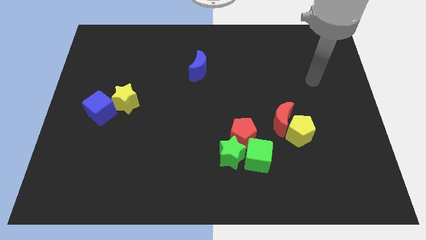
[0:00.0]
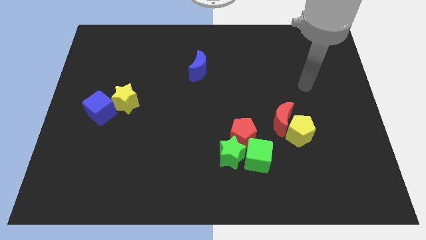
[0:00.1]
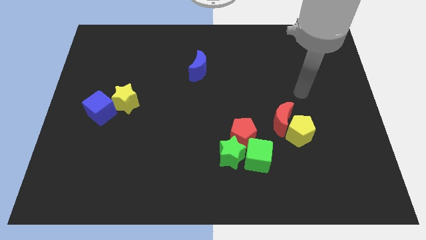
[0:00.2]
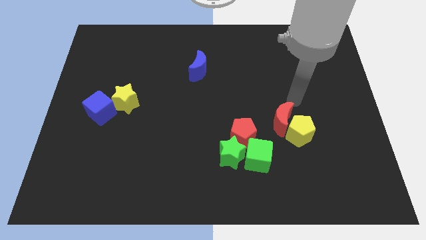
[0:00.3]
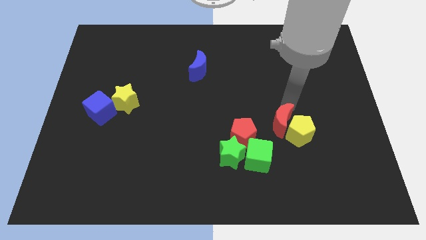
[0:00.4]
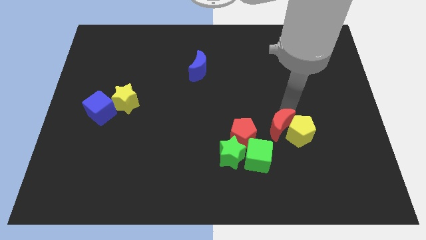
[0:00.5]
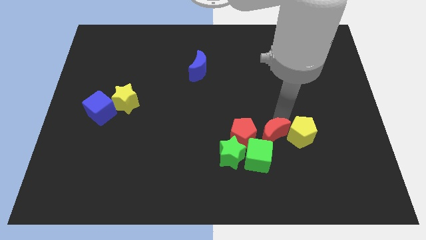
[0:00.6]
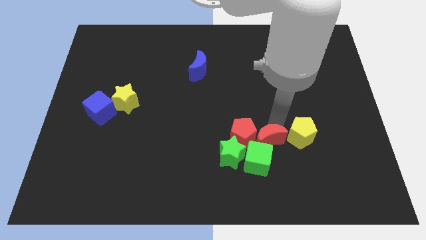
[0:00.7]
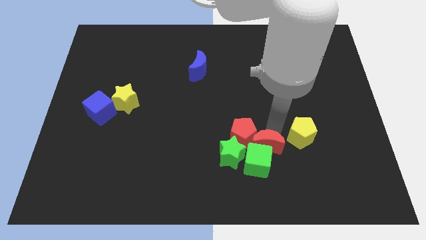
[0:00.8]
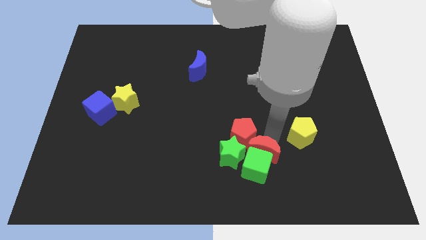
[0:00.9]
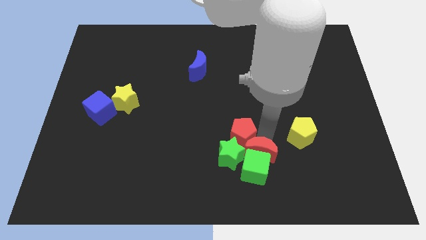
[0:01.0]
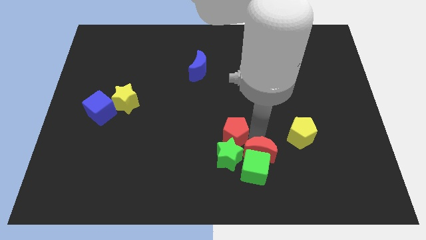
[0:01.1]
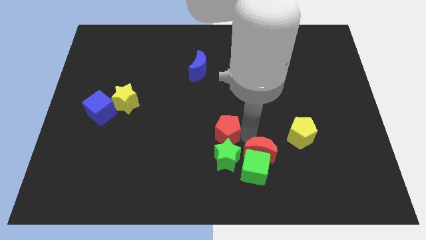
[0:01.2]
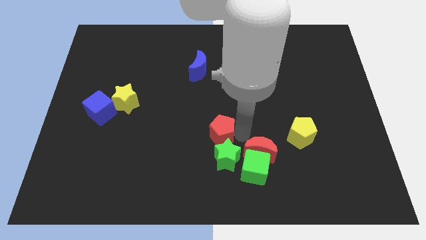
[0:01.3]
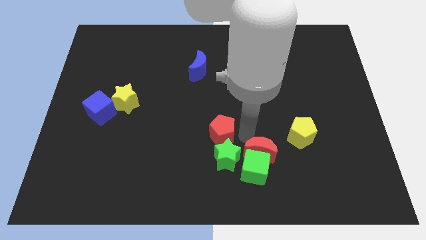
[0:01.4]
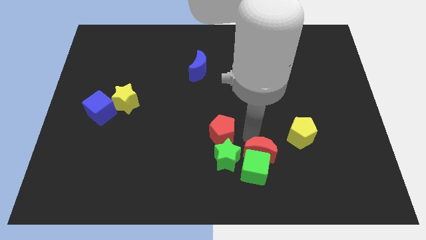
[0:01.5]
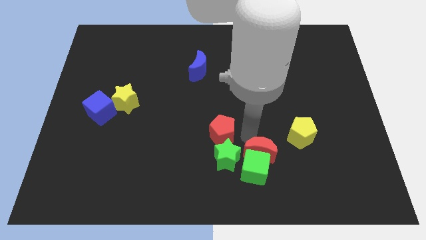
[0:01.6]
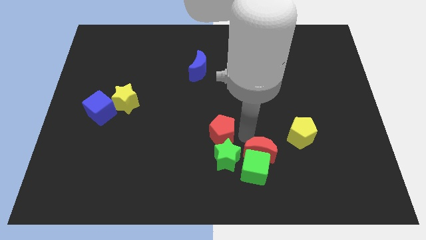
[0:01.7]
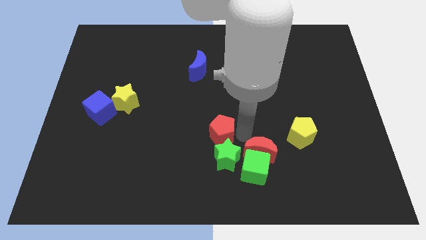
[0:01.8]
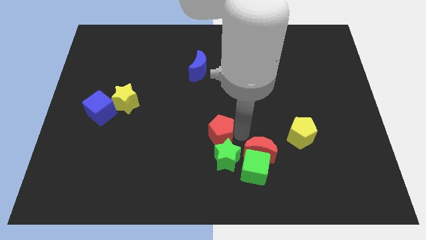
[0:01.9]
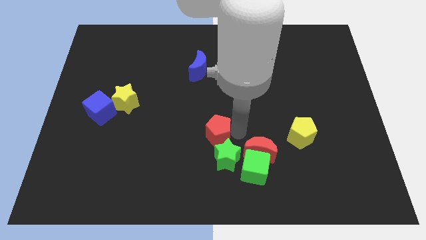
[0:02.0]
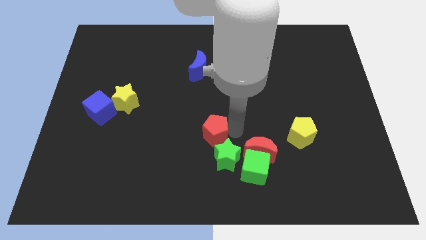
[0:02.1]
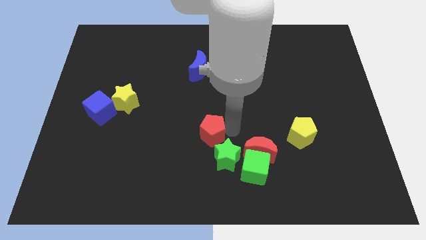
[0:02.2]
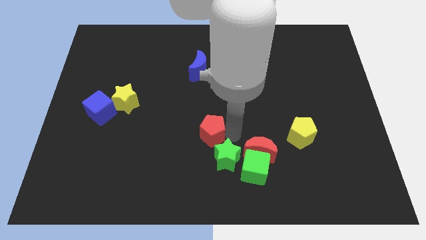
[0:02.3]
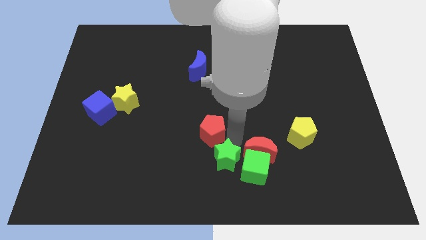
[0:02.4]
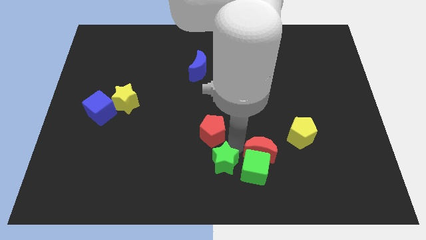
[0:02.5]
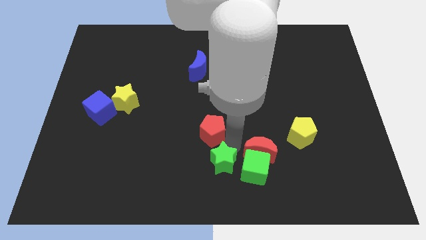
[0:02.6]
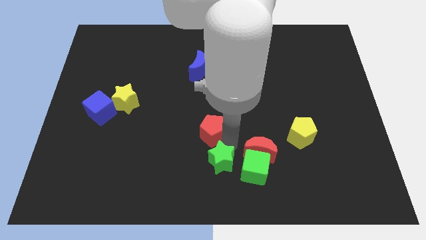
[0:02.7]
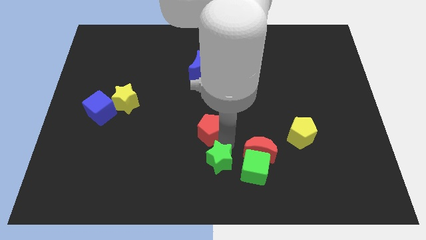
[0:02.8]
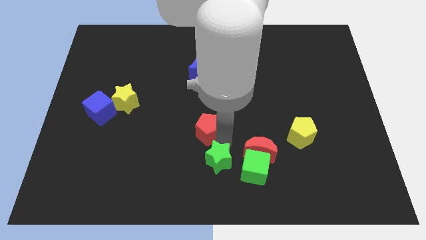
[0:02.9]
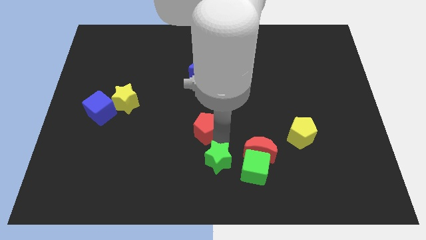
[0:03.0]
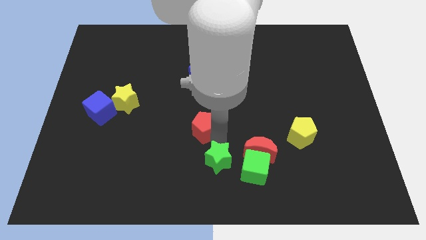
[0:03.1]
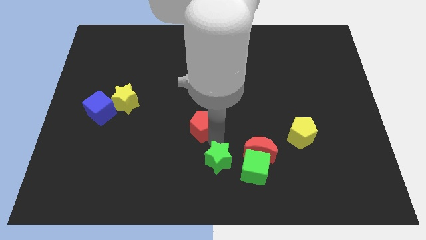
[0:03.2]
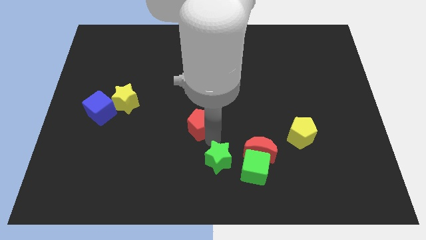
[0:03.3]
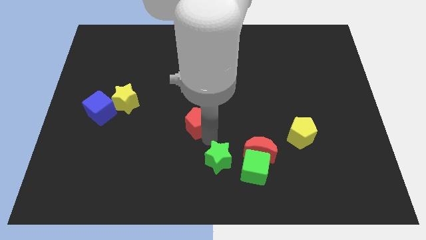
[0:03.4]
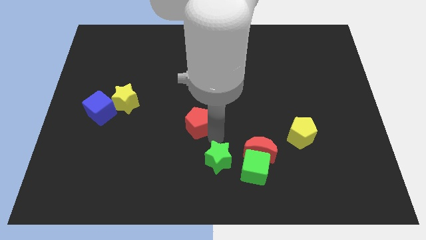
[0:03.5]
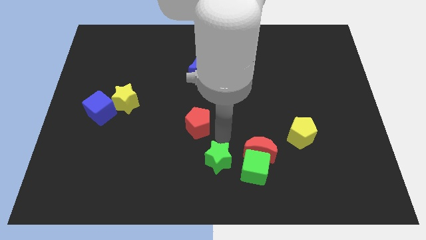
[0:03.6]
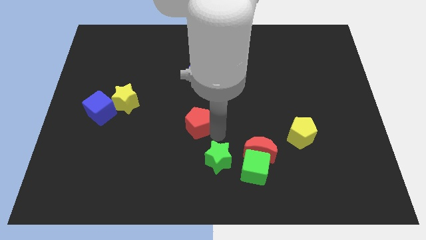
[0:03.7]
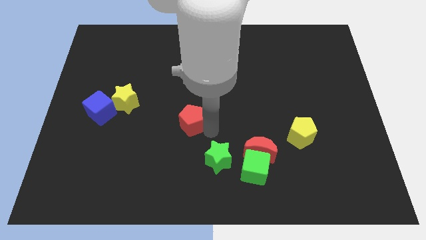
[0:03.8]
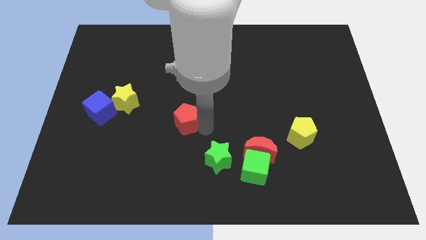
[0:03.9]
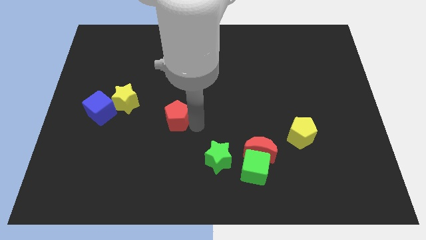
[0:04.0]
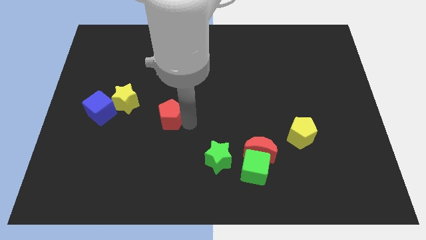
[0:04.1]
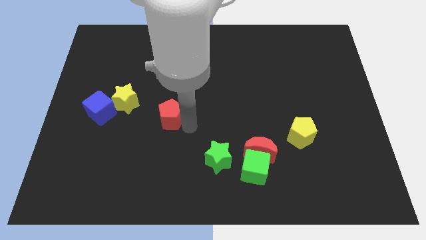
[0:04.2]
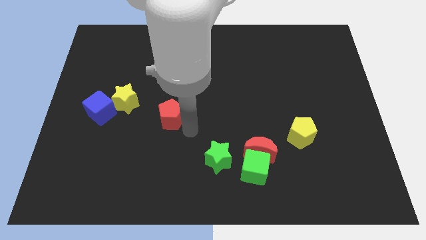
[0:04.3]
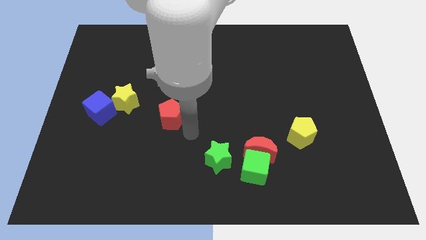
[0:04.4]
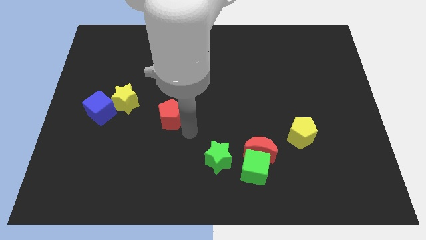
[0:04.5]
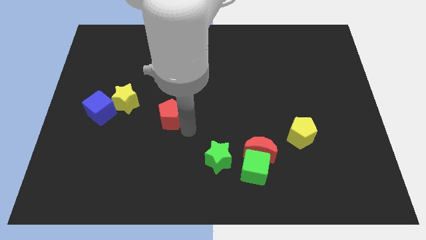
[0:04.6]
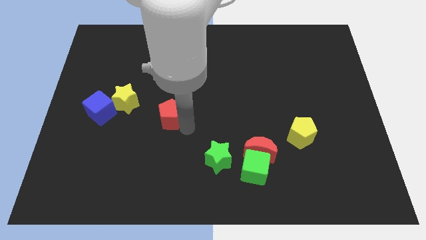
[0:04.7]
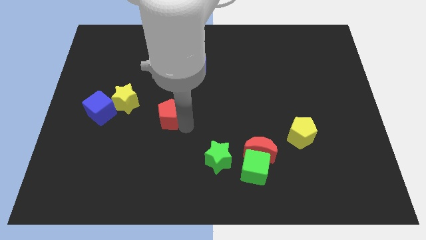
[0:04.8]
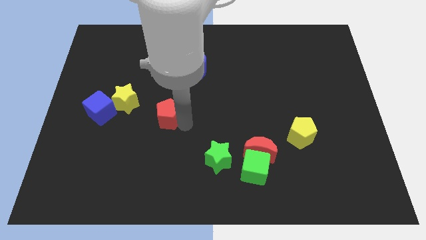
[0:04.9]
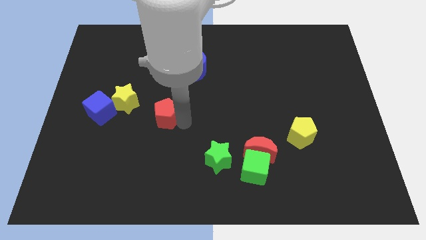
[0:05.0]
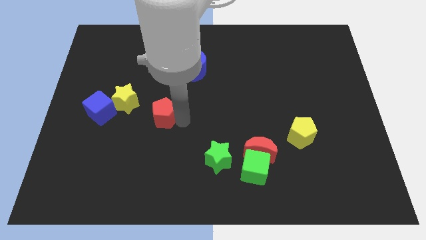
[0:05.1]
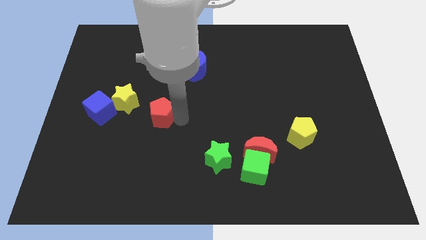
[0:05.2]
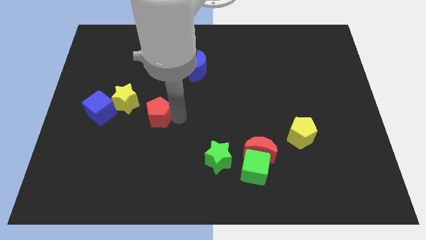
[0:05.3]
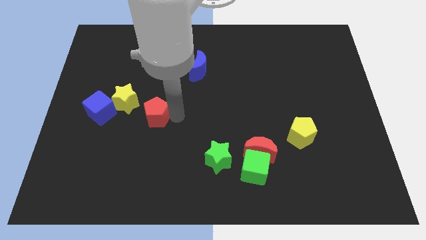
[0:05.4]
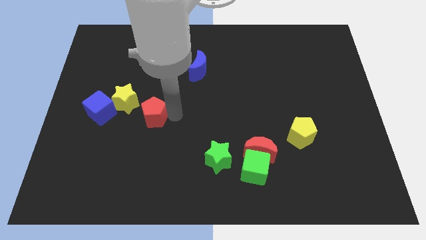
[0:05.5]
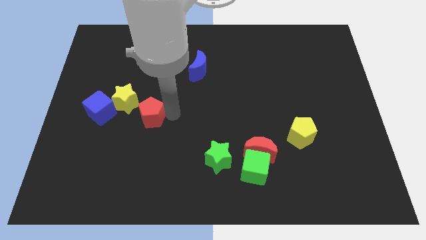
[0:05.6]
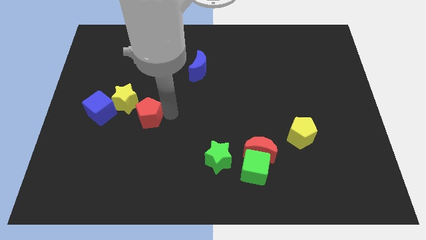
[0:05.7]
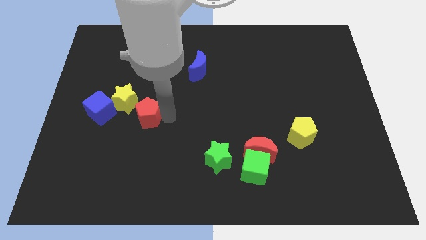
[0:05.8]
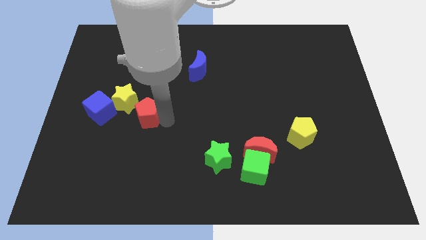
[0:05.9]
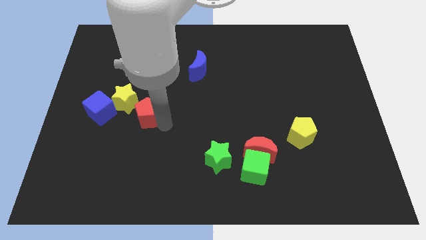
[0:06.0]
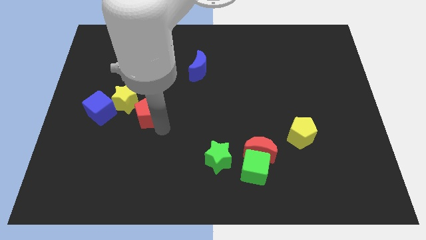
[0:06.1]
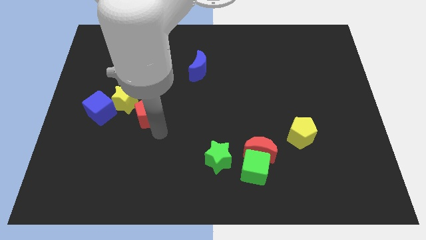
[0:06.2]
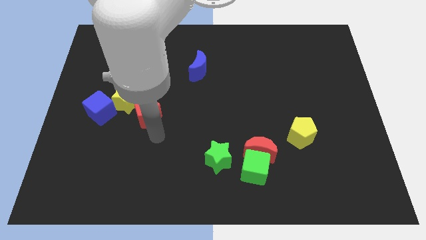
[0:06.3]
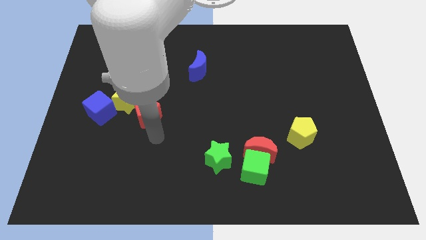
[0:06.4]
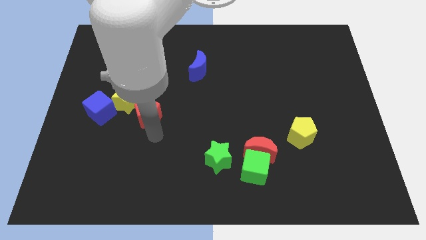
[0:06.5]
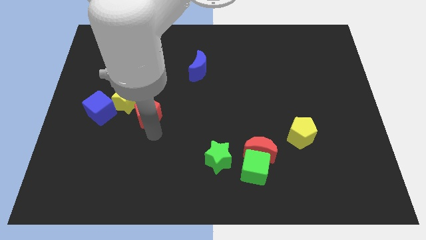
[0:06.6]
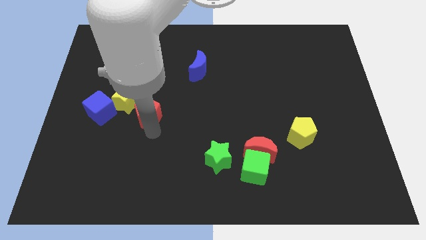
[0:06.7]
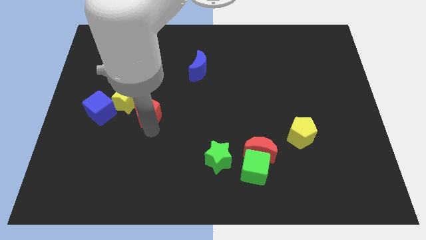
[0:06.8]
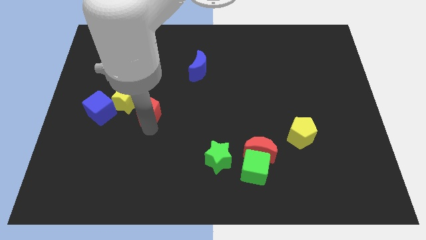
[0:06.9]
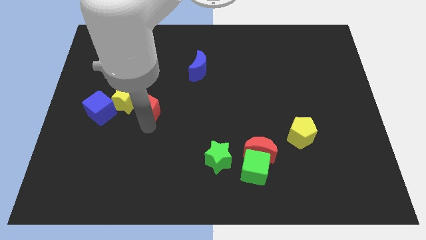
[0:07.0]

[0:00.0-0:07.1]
push the red pentagon towards the yellow star

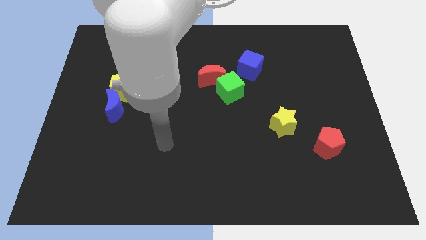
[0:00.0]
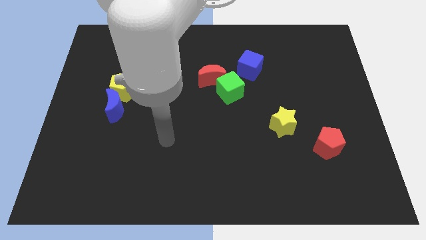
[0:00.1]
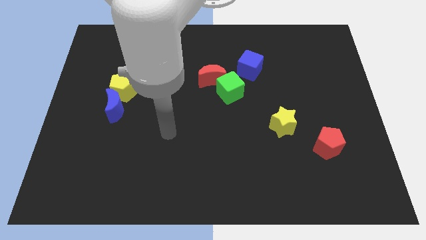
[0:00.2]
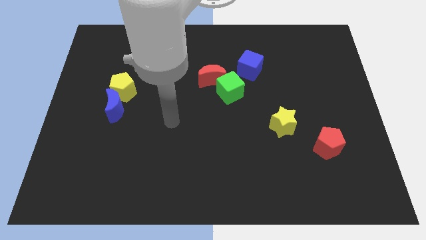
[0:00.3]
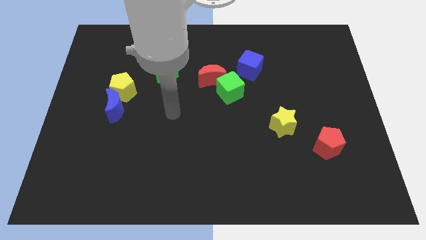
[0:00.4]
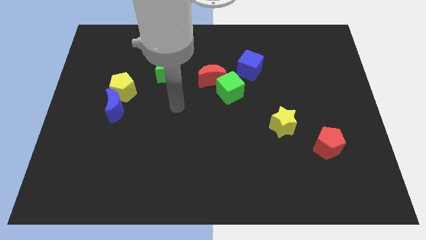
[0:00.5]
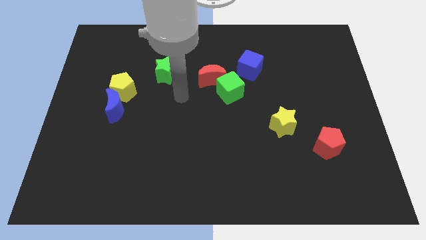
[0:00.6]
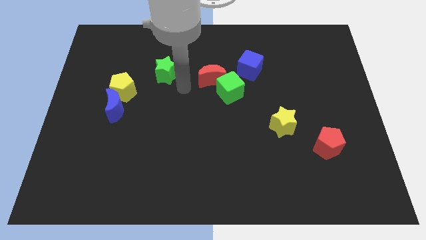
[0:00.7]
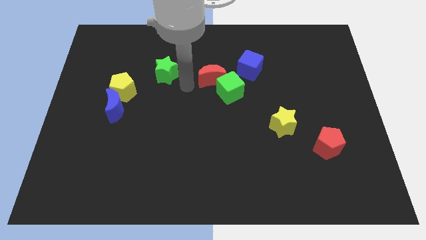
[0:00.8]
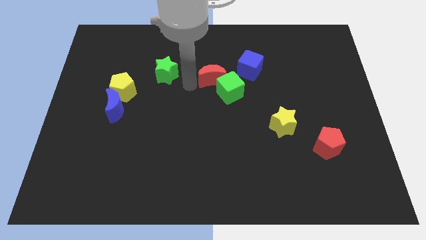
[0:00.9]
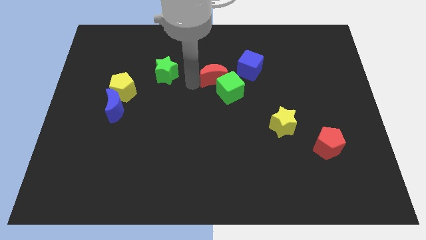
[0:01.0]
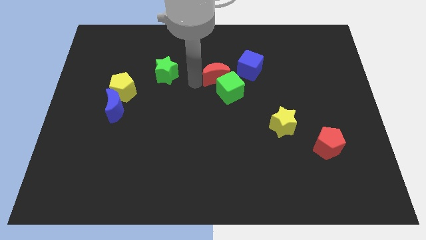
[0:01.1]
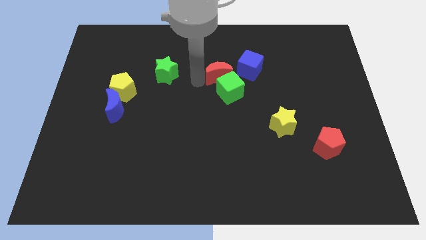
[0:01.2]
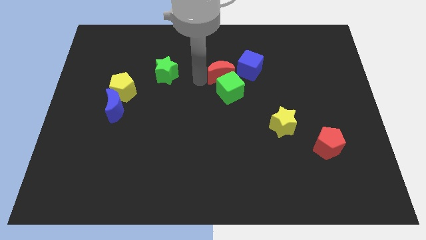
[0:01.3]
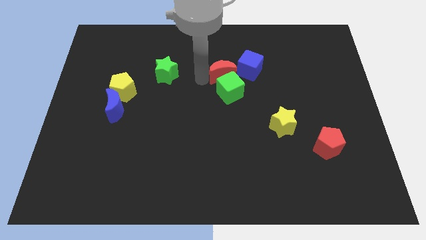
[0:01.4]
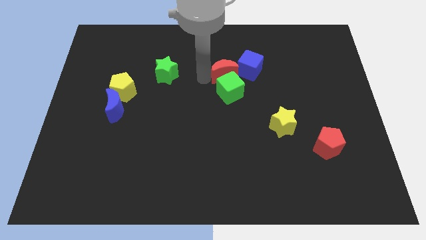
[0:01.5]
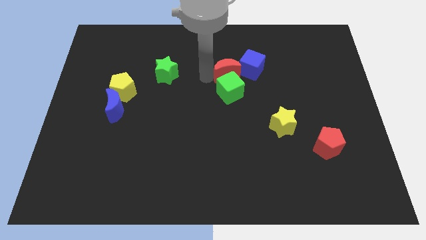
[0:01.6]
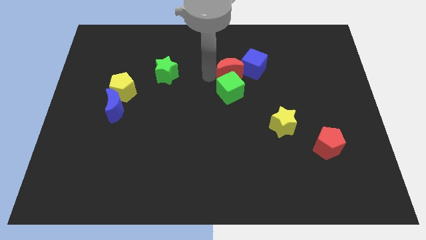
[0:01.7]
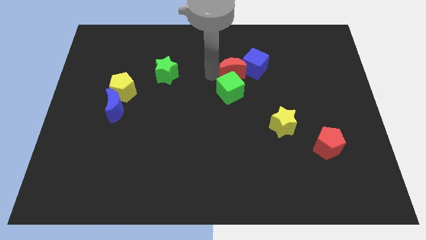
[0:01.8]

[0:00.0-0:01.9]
put the red moon next to the blue cube
